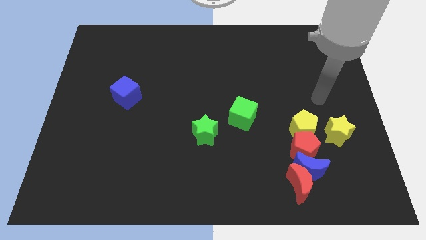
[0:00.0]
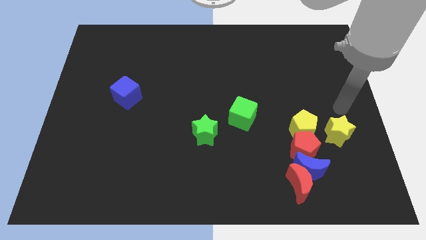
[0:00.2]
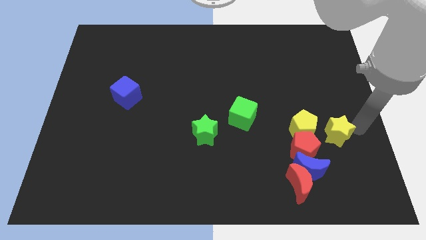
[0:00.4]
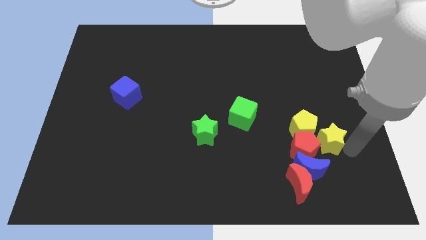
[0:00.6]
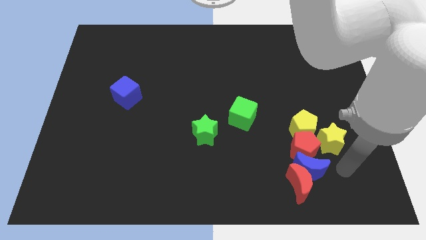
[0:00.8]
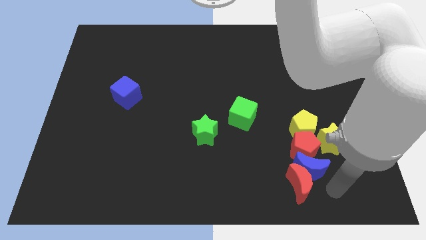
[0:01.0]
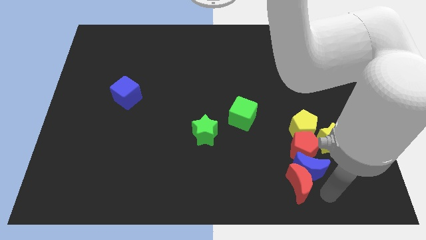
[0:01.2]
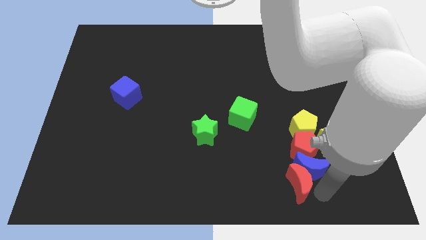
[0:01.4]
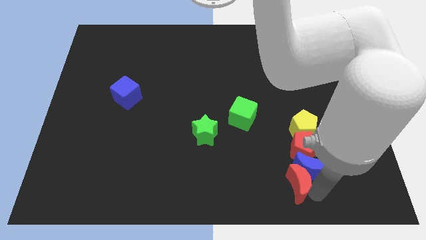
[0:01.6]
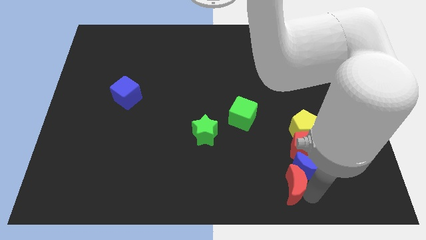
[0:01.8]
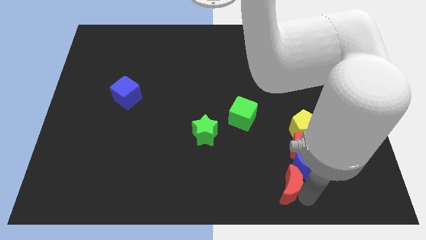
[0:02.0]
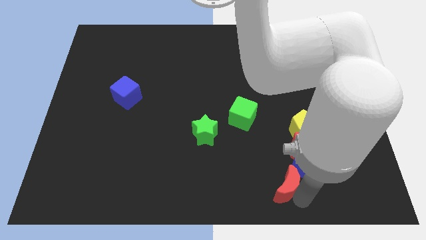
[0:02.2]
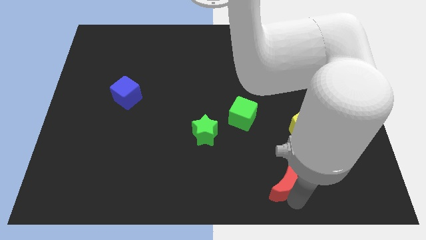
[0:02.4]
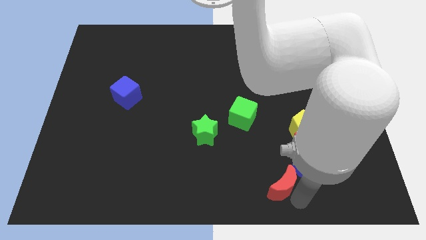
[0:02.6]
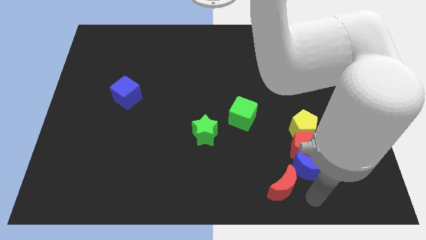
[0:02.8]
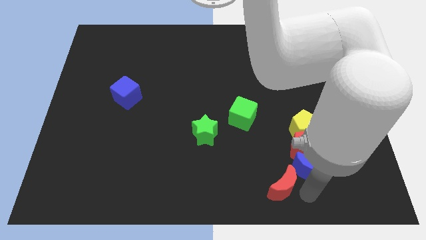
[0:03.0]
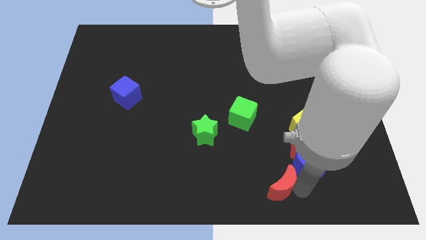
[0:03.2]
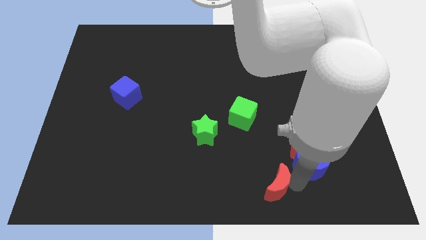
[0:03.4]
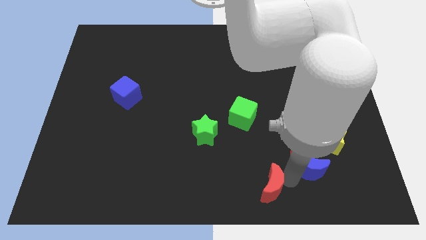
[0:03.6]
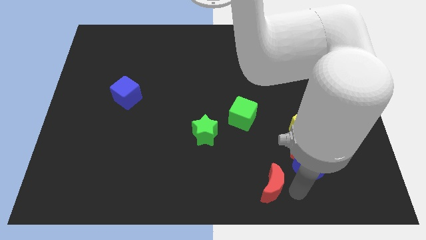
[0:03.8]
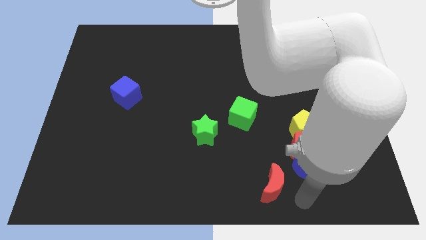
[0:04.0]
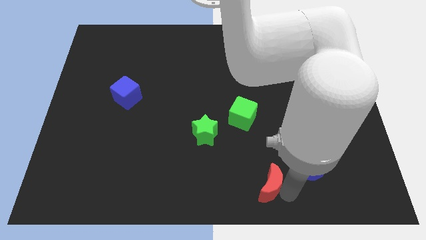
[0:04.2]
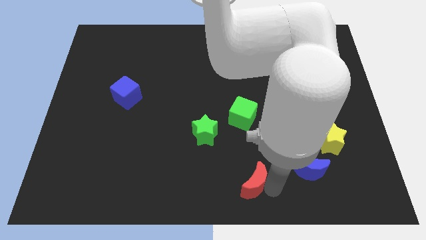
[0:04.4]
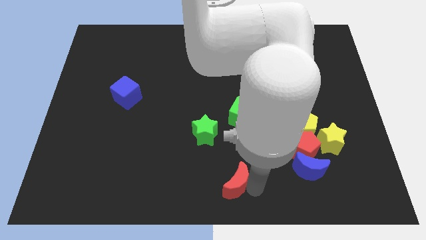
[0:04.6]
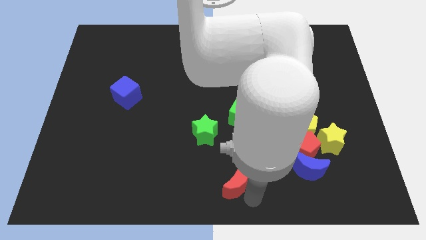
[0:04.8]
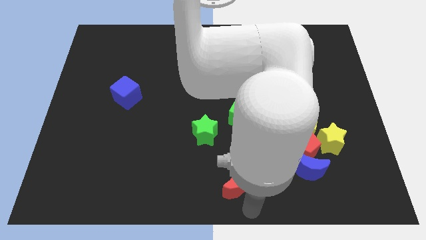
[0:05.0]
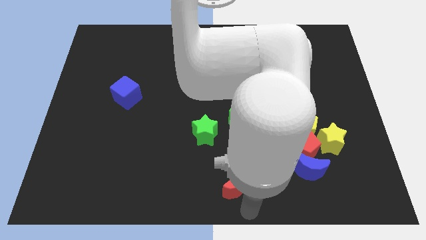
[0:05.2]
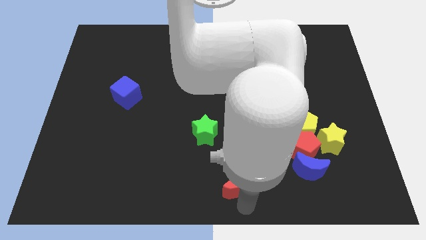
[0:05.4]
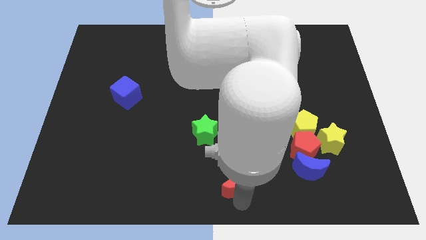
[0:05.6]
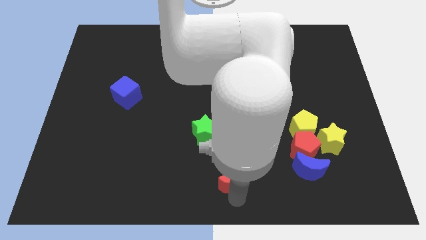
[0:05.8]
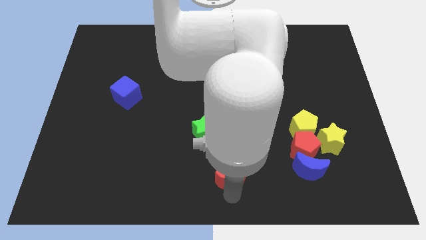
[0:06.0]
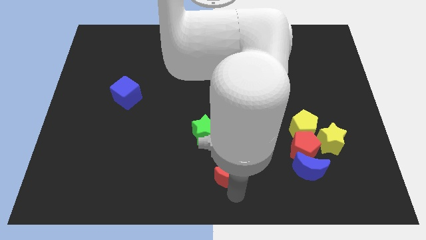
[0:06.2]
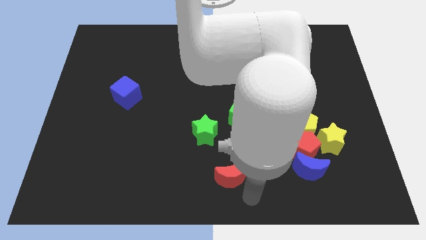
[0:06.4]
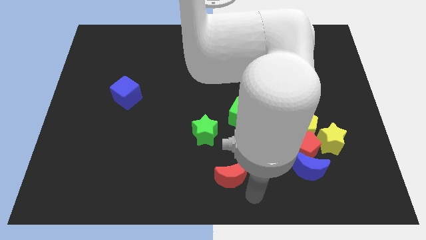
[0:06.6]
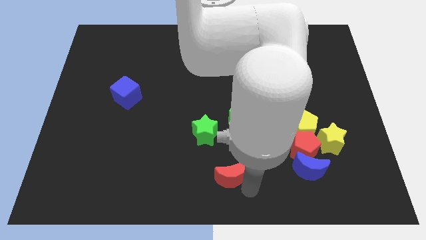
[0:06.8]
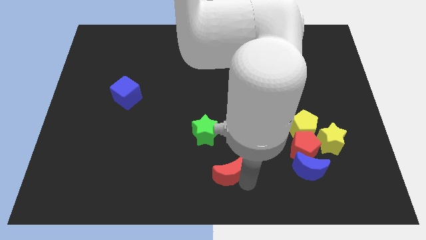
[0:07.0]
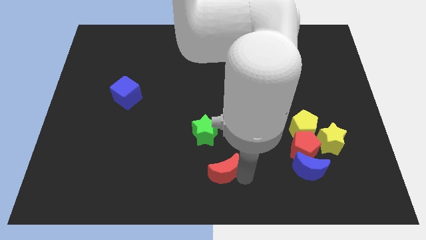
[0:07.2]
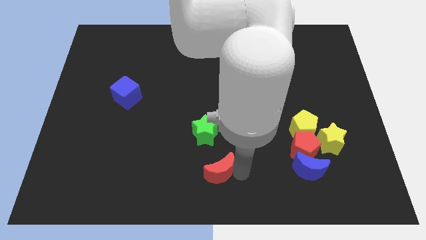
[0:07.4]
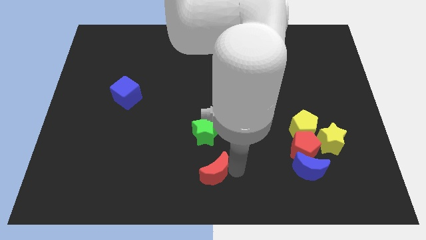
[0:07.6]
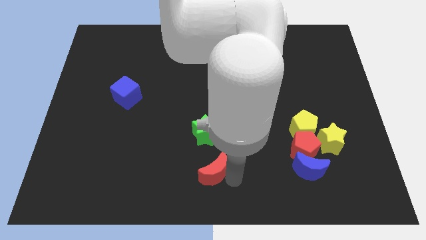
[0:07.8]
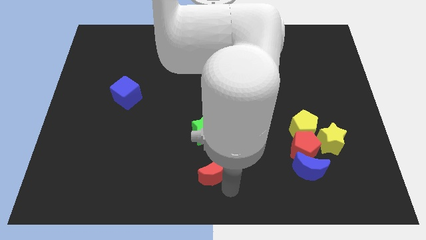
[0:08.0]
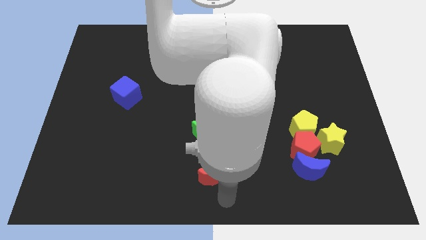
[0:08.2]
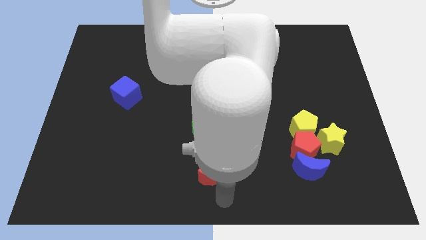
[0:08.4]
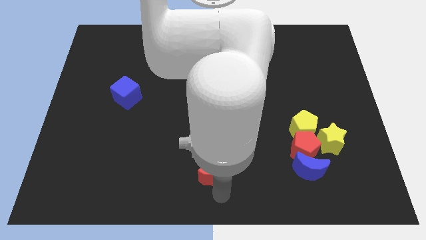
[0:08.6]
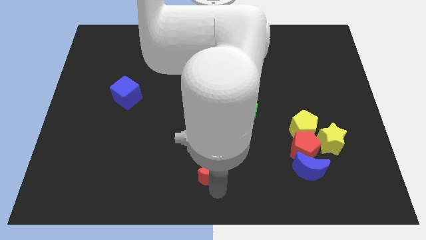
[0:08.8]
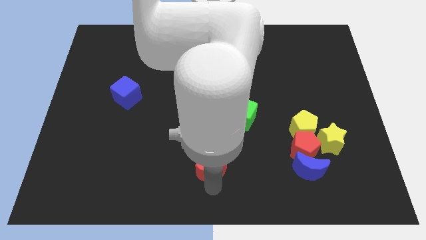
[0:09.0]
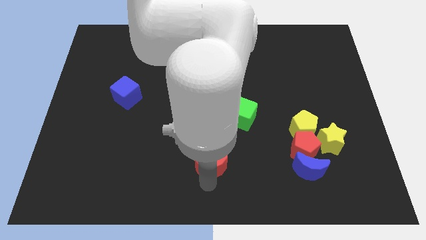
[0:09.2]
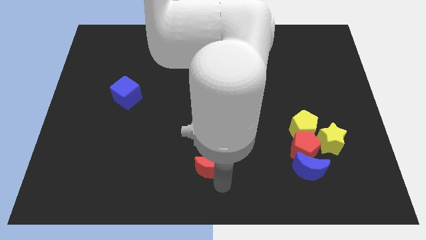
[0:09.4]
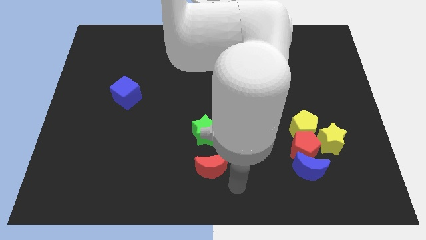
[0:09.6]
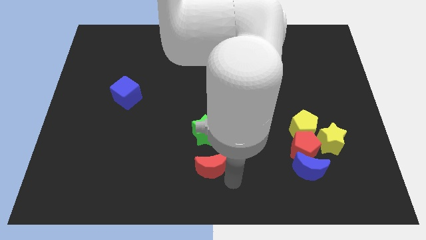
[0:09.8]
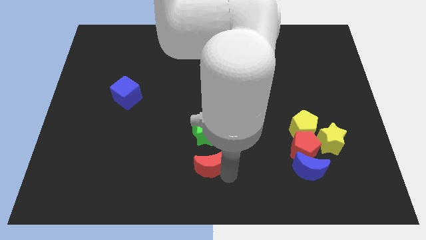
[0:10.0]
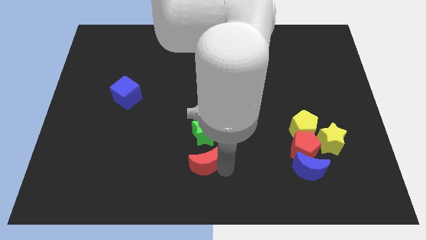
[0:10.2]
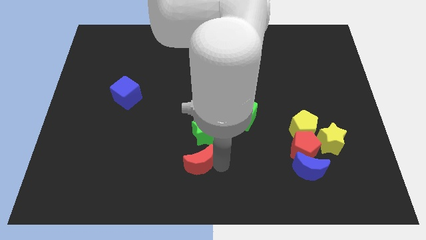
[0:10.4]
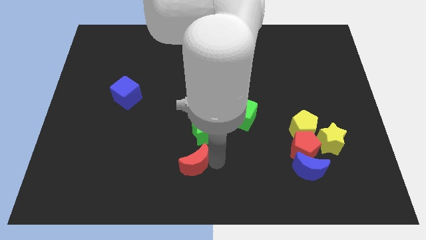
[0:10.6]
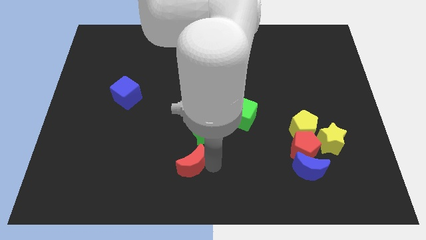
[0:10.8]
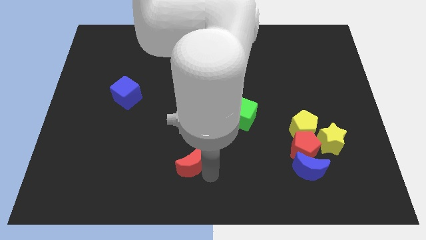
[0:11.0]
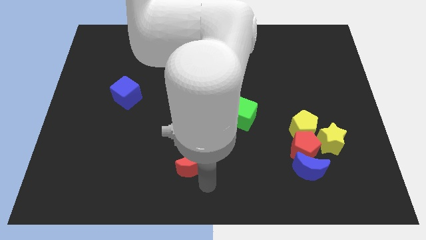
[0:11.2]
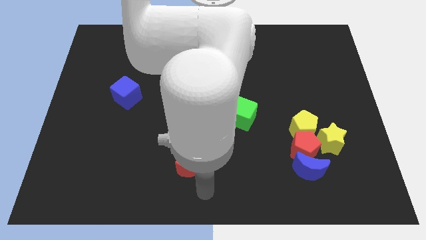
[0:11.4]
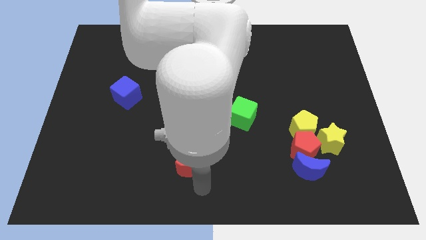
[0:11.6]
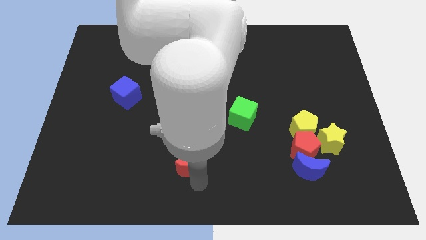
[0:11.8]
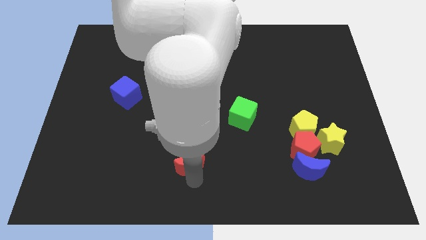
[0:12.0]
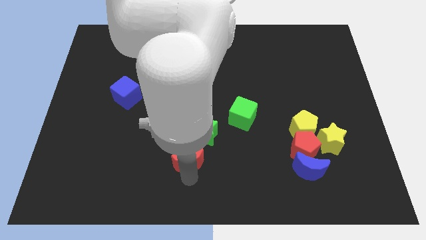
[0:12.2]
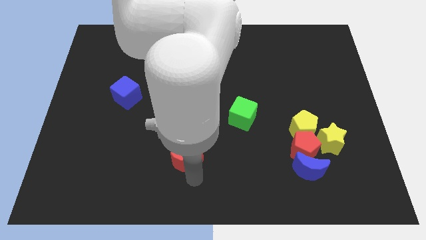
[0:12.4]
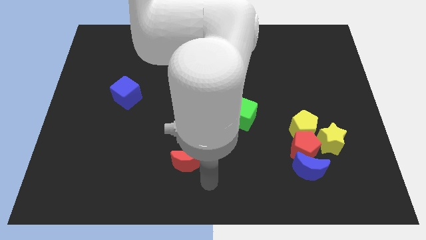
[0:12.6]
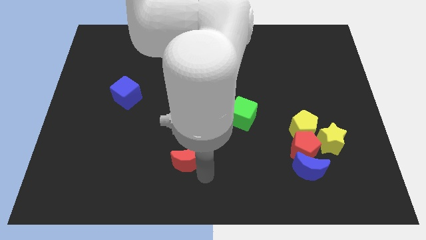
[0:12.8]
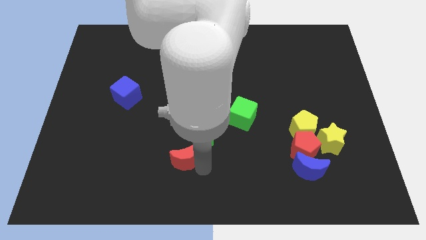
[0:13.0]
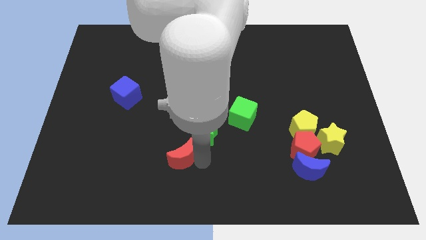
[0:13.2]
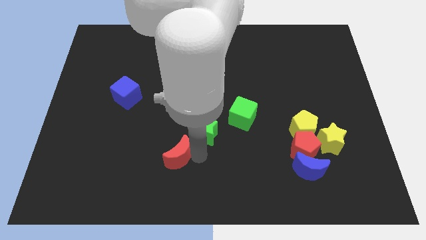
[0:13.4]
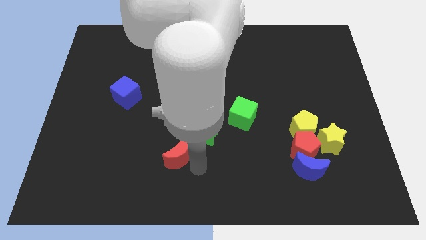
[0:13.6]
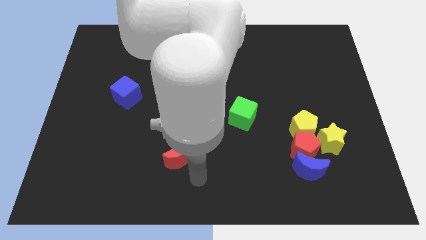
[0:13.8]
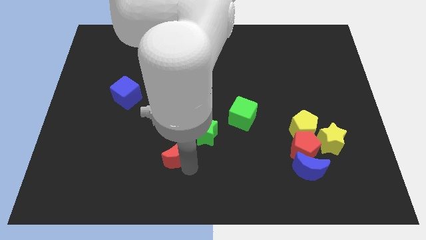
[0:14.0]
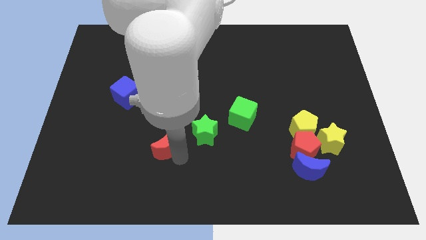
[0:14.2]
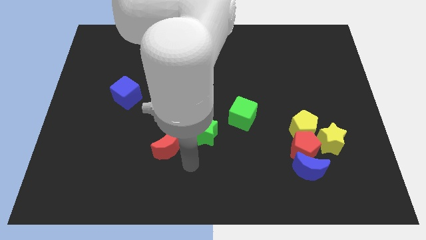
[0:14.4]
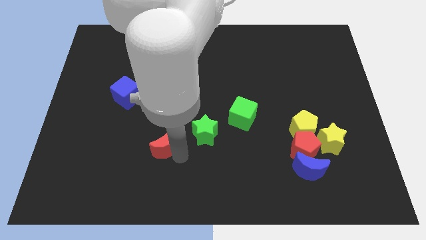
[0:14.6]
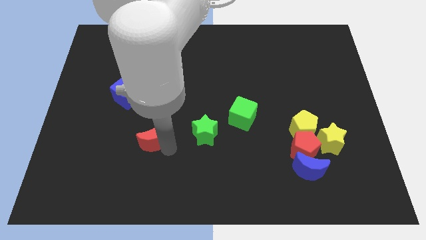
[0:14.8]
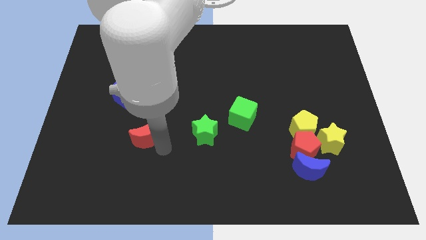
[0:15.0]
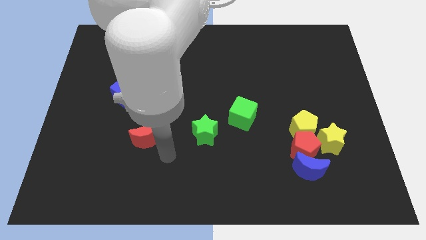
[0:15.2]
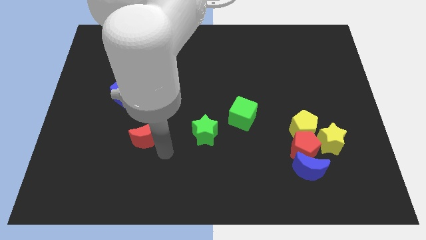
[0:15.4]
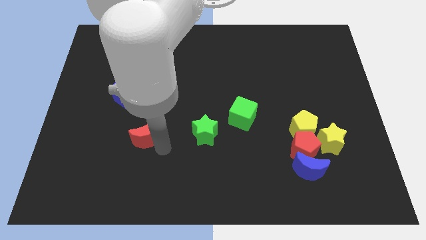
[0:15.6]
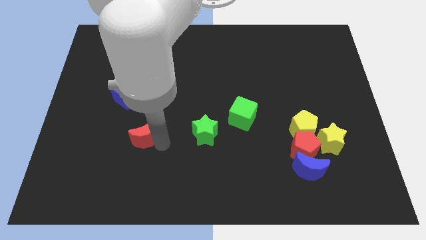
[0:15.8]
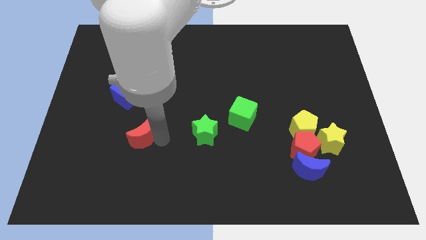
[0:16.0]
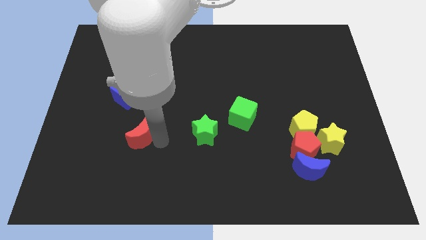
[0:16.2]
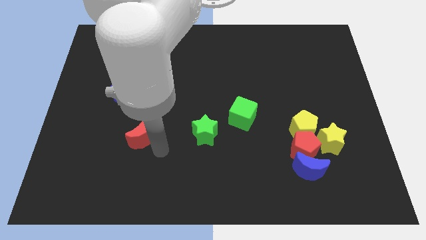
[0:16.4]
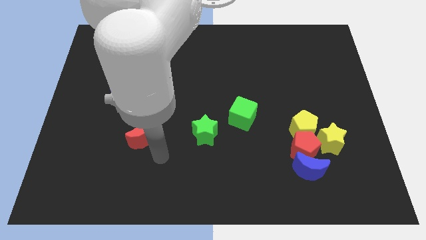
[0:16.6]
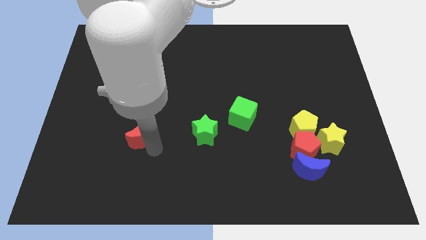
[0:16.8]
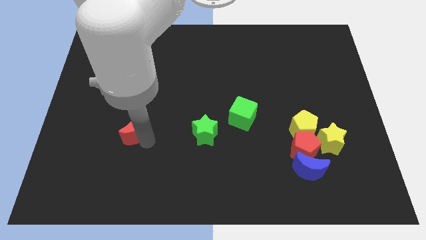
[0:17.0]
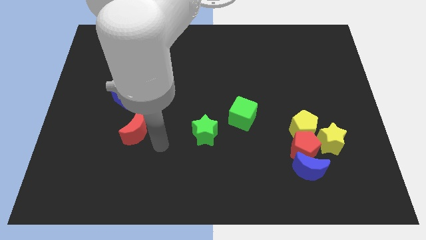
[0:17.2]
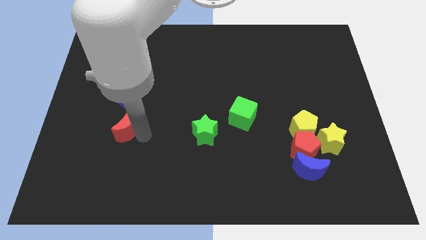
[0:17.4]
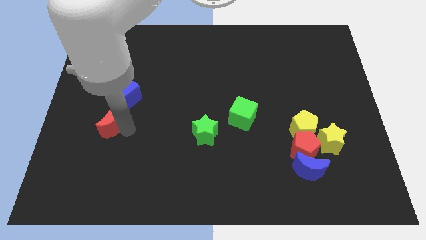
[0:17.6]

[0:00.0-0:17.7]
move the red moon diagonally down and to the left of the blue cube
